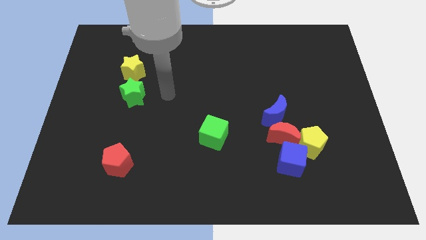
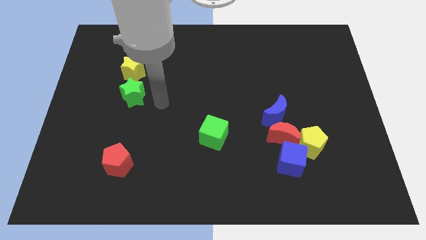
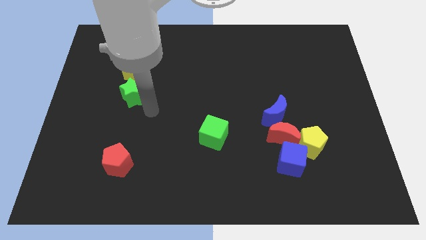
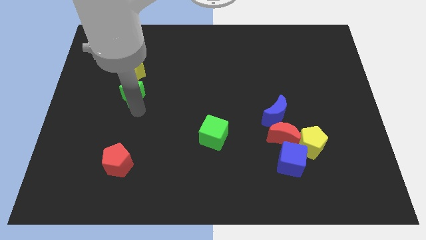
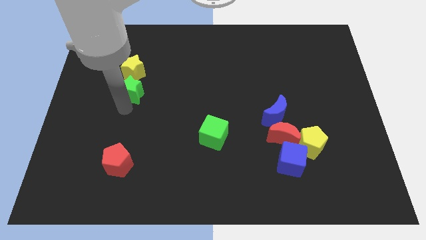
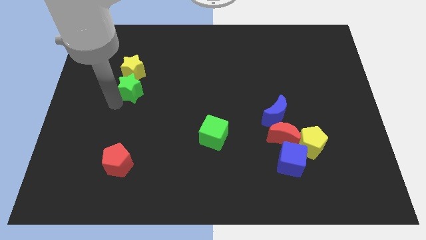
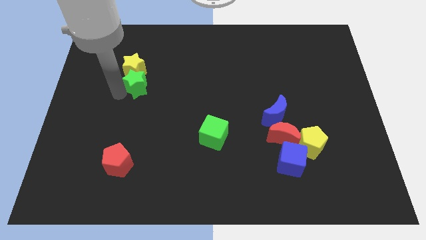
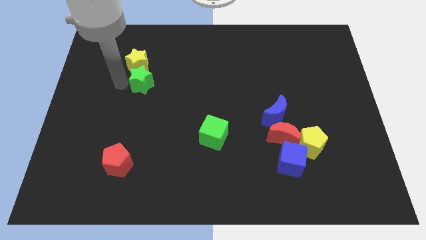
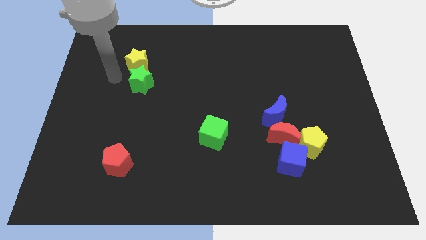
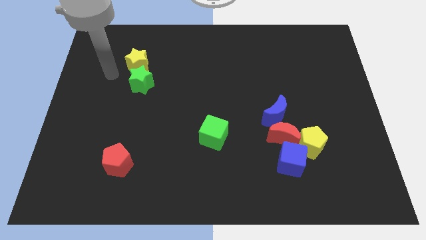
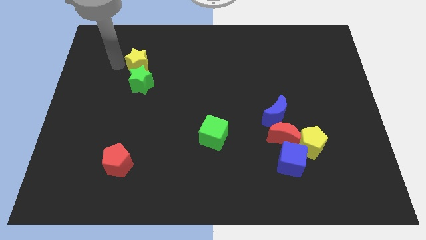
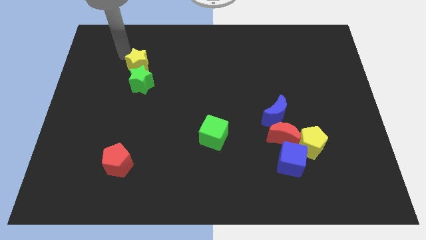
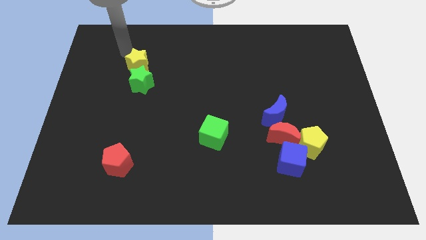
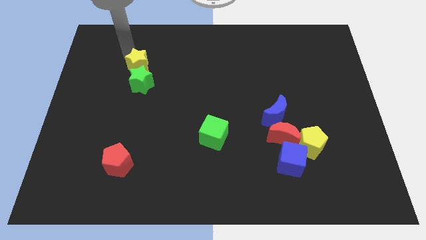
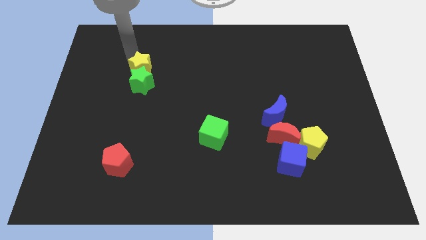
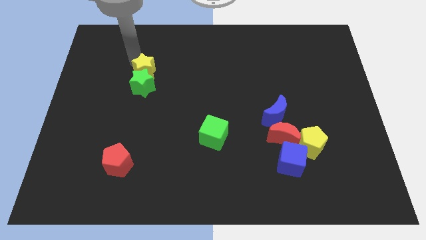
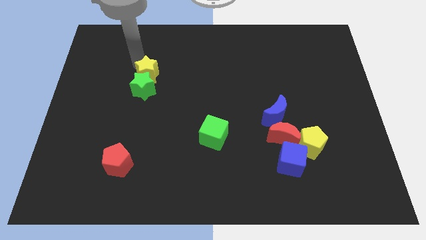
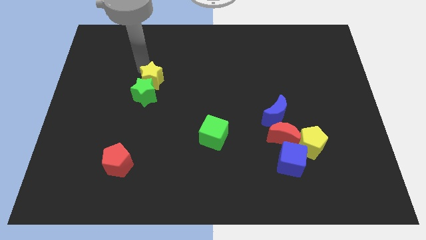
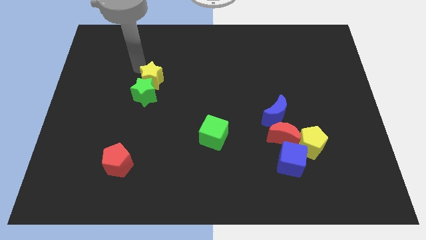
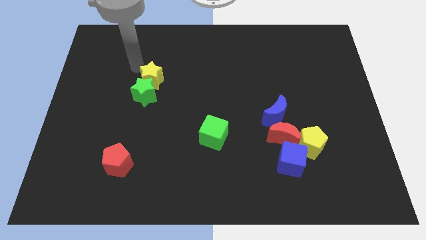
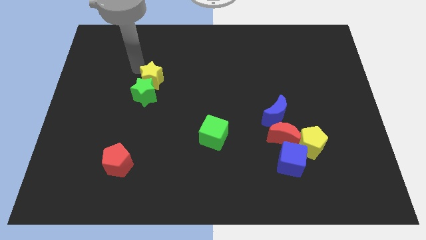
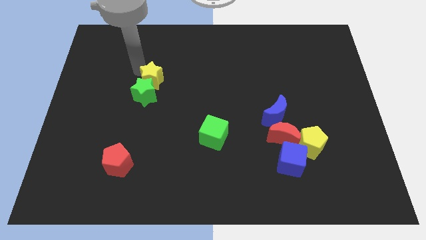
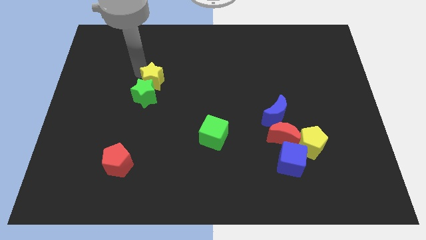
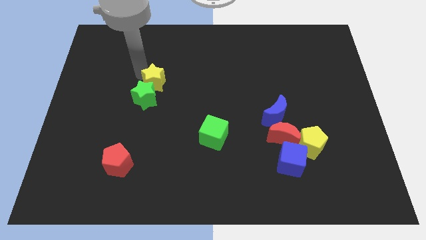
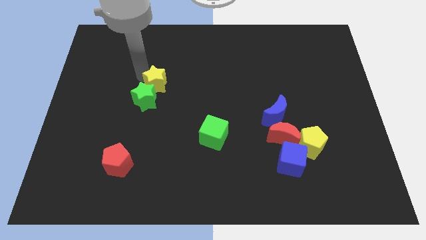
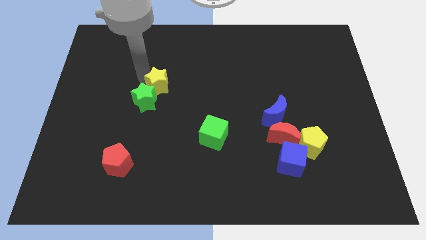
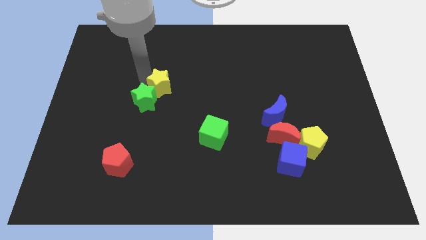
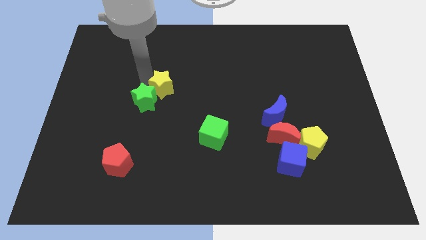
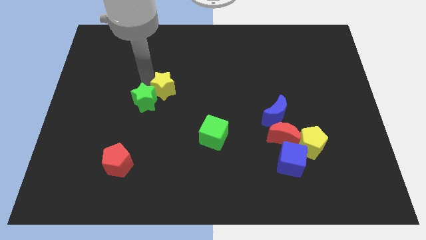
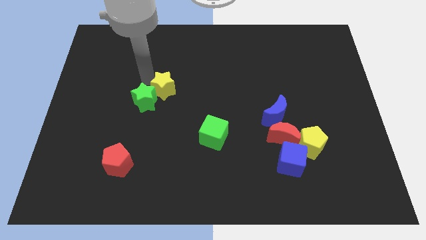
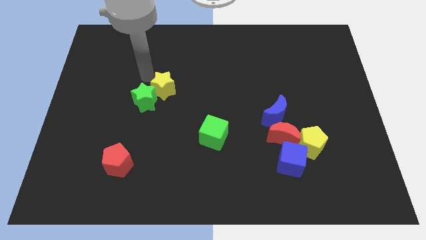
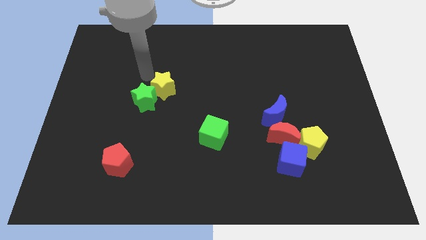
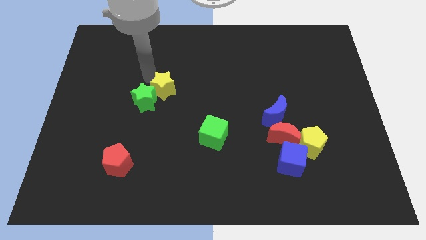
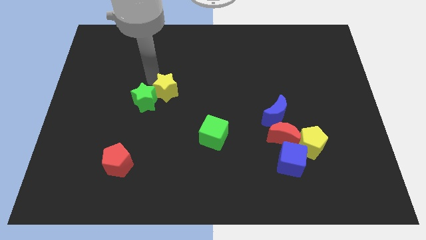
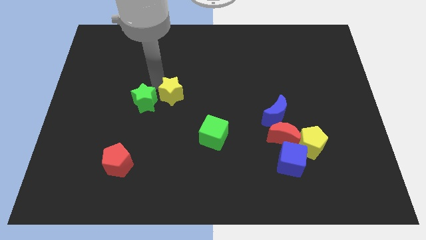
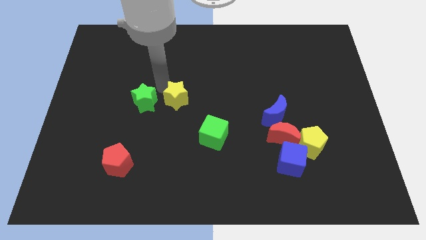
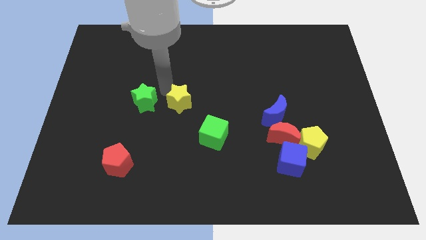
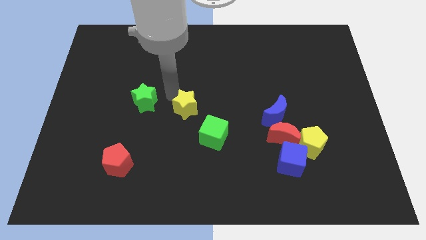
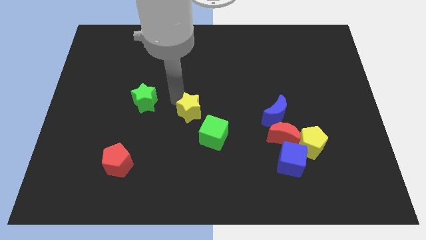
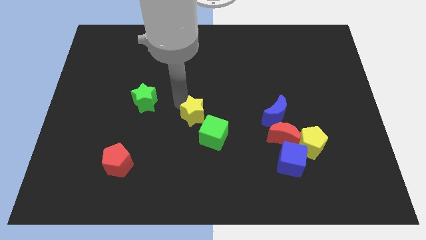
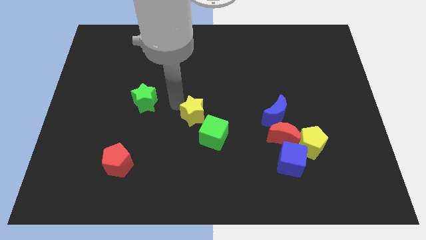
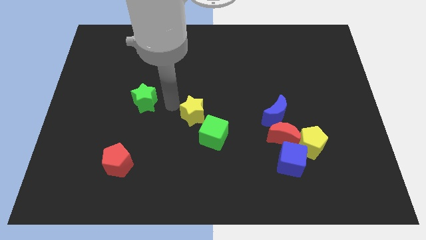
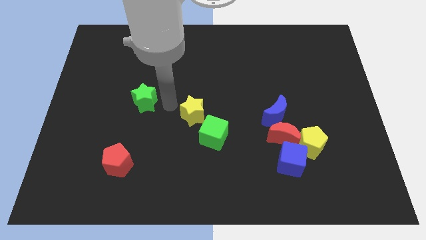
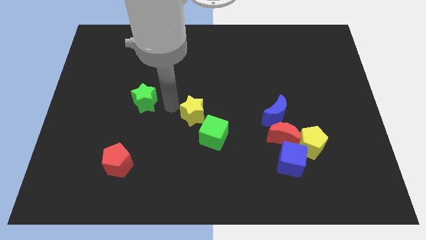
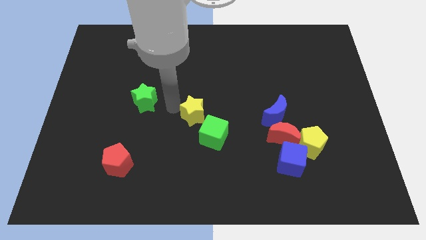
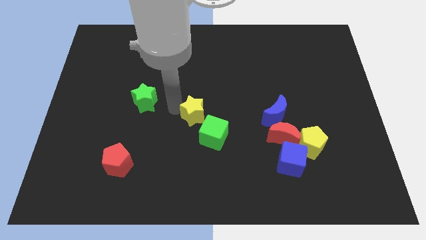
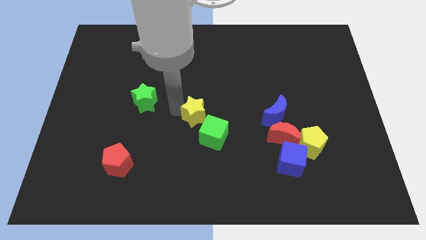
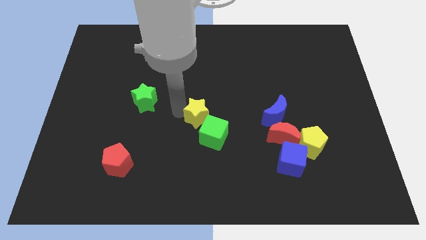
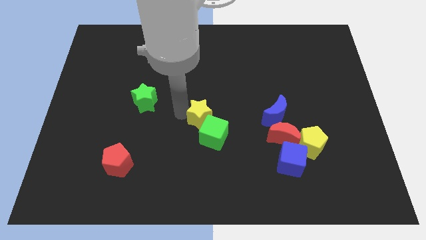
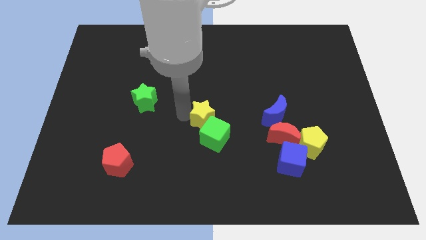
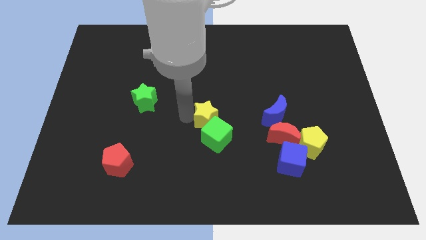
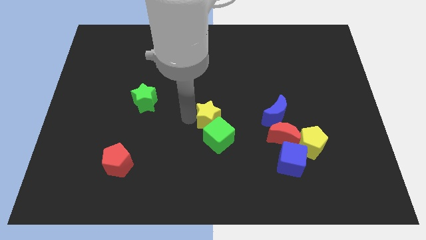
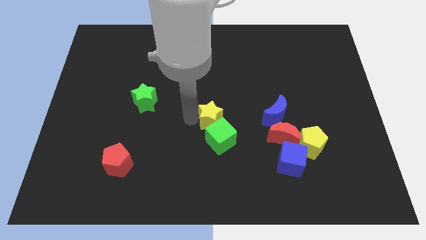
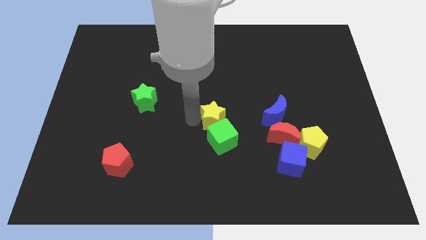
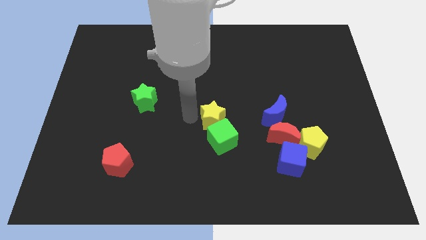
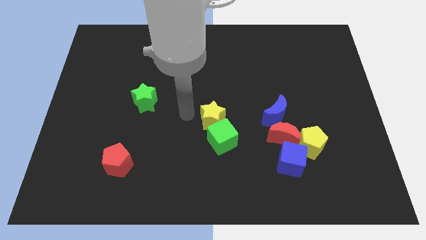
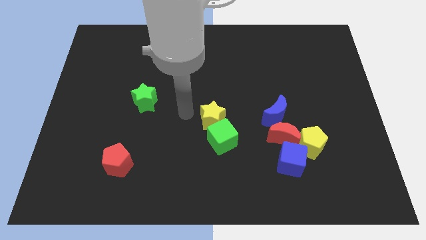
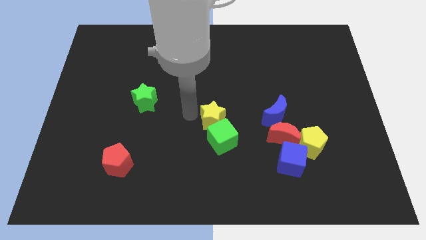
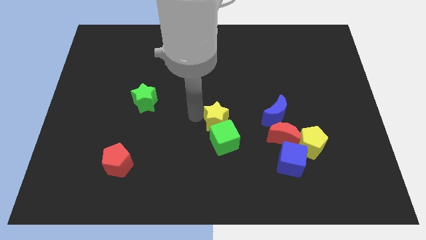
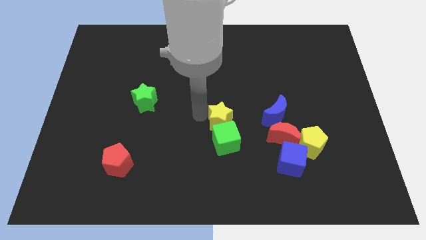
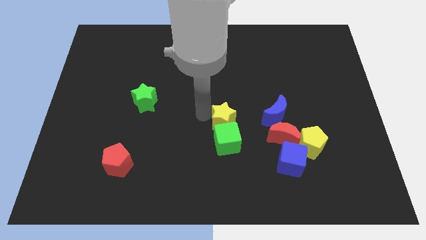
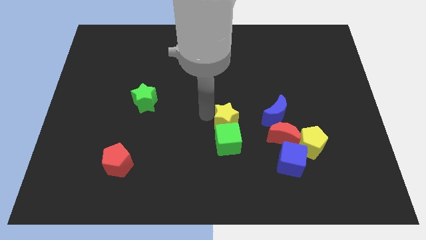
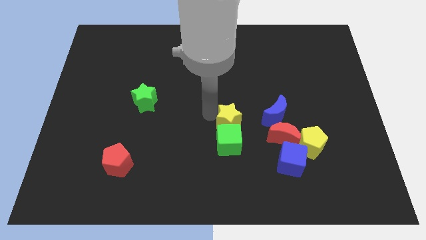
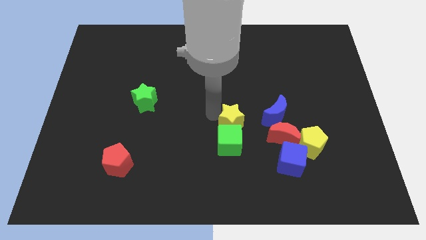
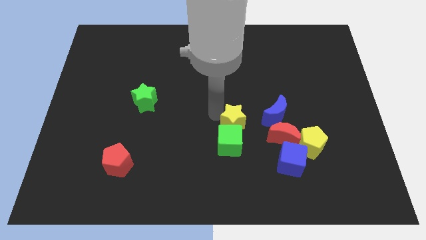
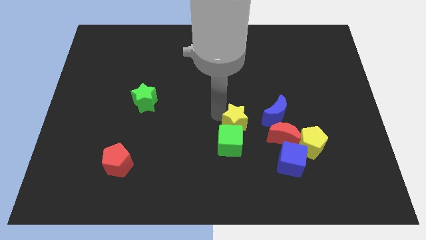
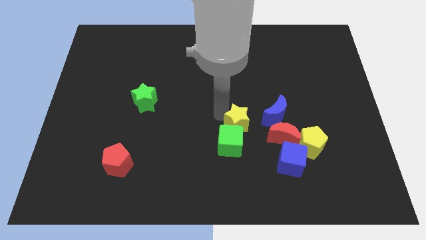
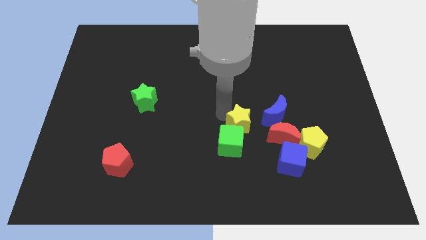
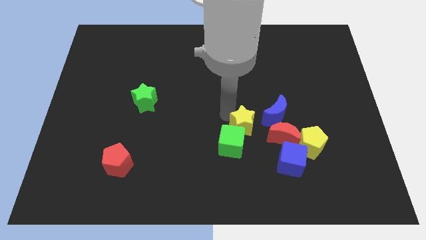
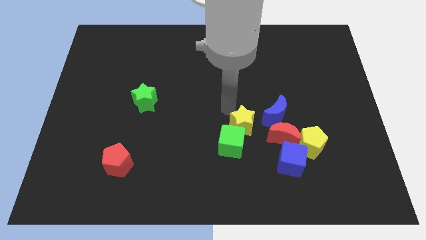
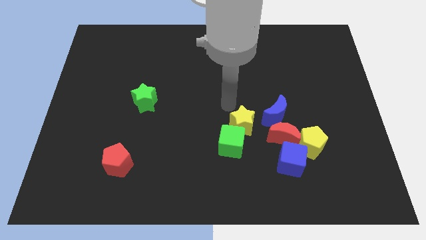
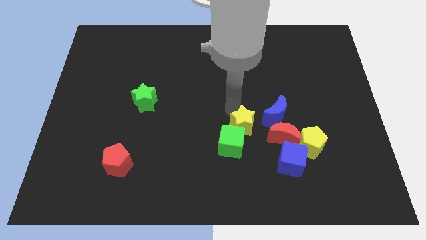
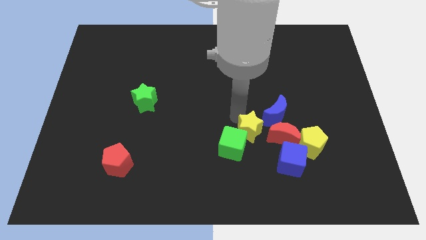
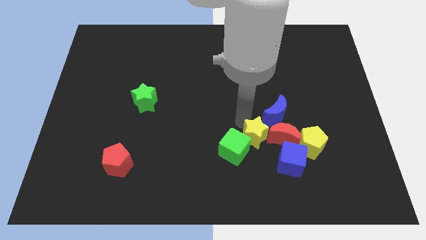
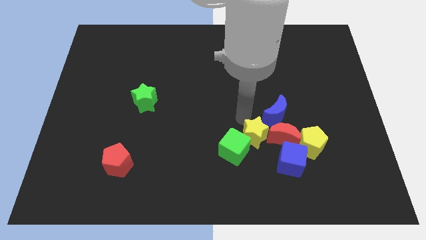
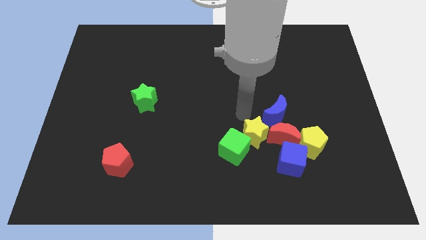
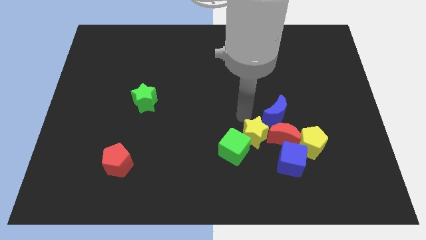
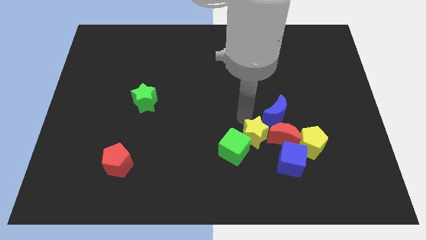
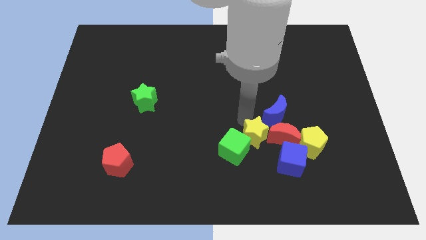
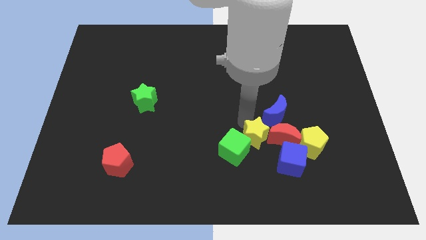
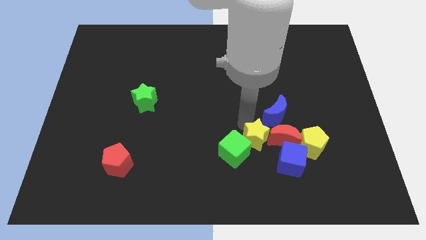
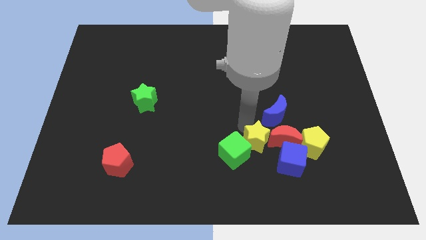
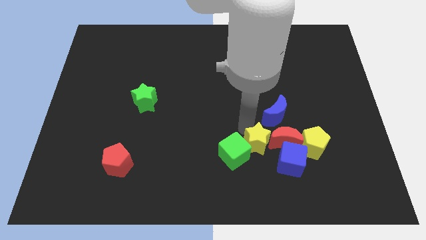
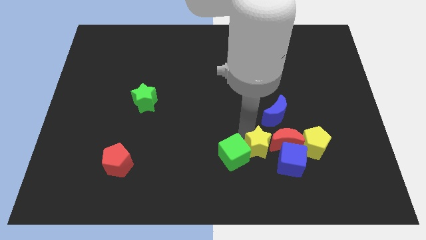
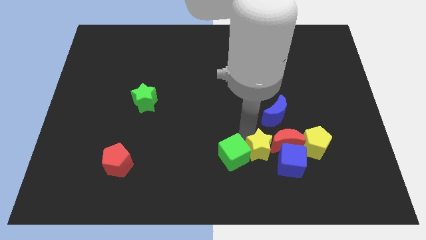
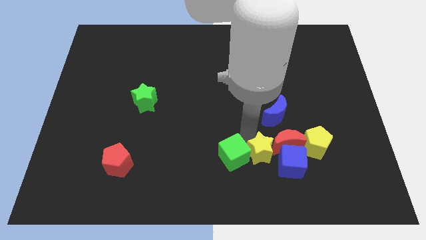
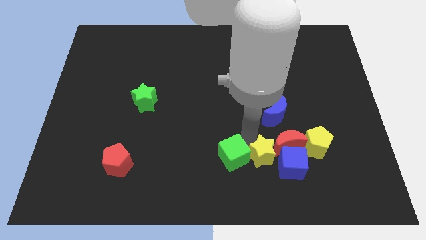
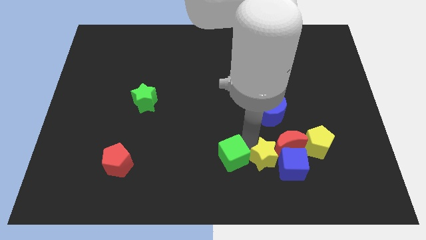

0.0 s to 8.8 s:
move the yellow star to the blue cube
